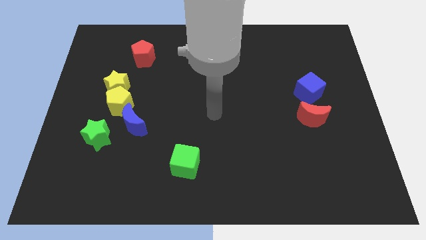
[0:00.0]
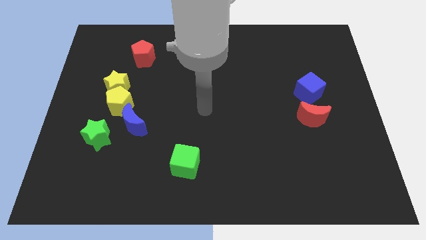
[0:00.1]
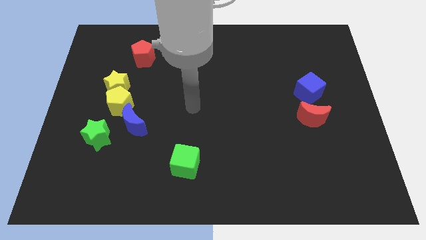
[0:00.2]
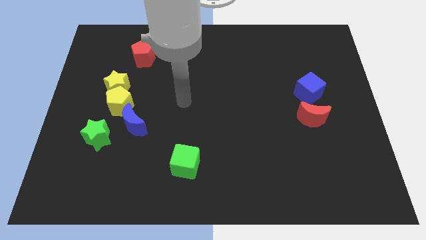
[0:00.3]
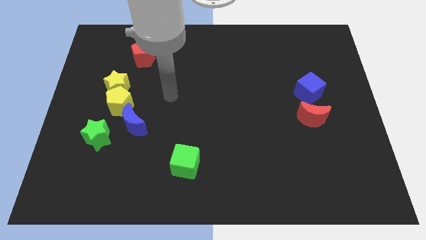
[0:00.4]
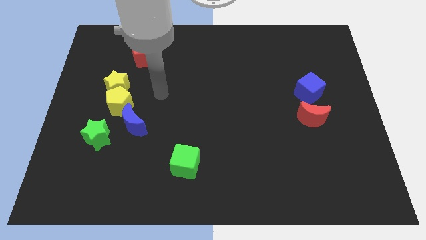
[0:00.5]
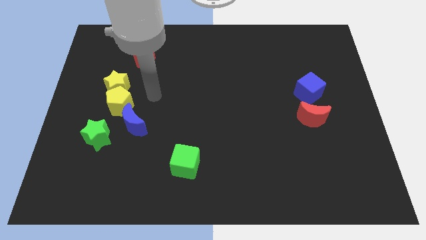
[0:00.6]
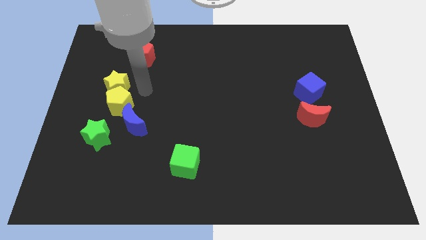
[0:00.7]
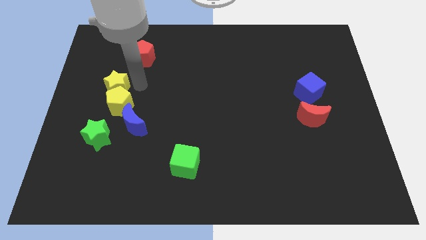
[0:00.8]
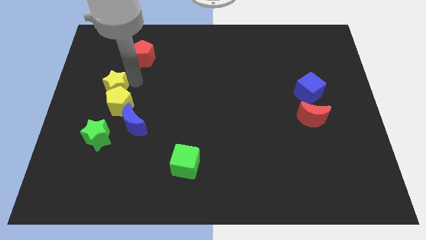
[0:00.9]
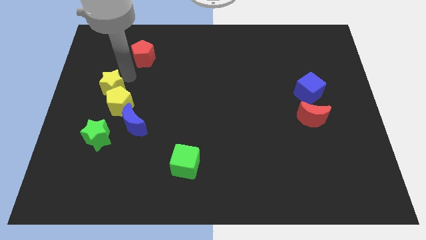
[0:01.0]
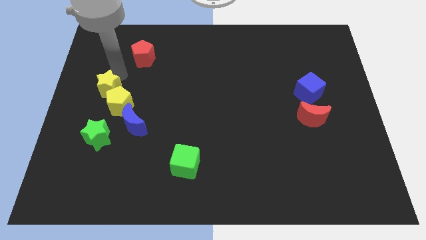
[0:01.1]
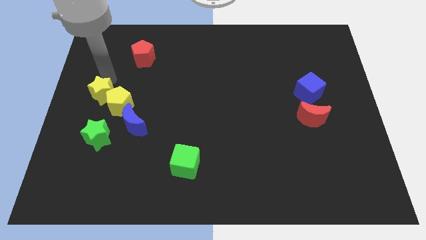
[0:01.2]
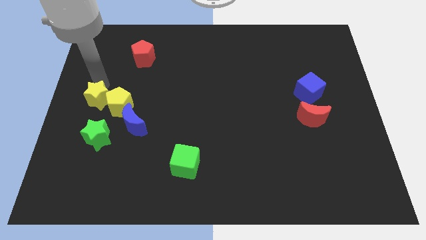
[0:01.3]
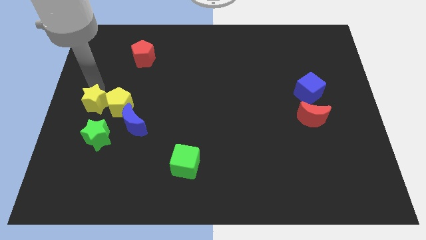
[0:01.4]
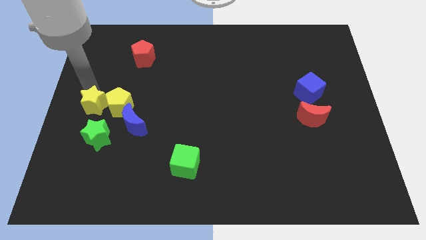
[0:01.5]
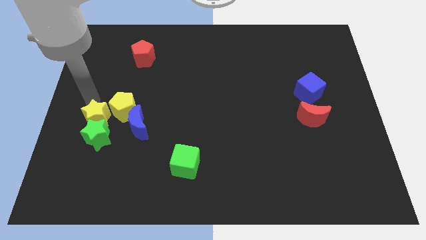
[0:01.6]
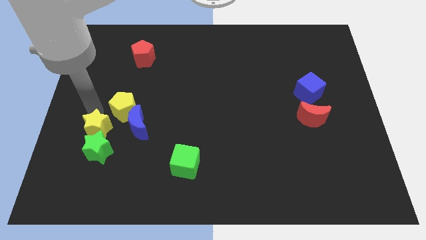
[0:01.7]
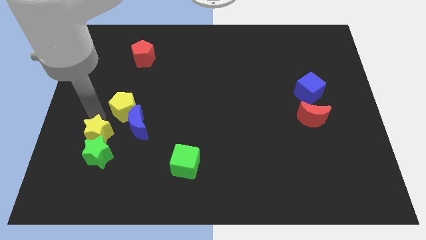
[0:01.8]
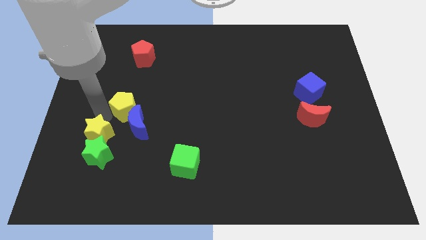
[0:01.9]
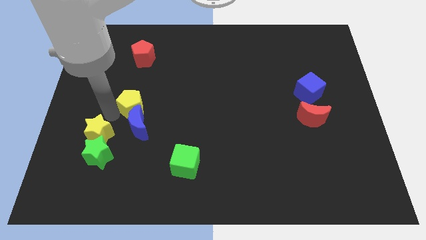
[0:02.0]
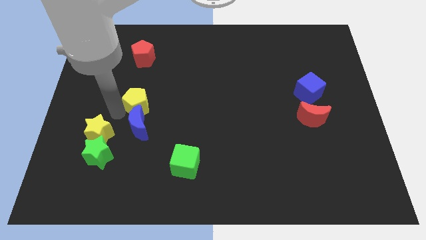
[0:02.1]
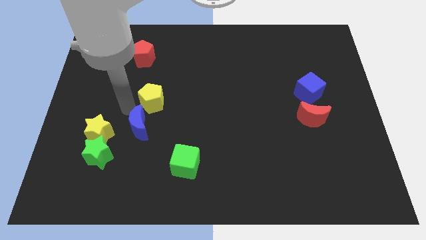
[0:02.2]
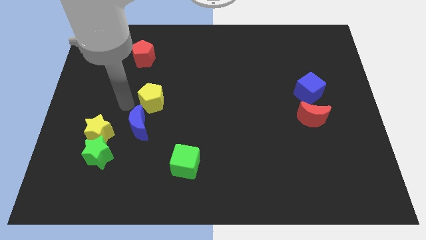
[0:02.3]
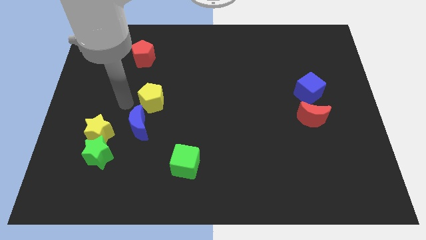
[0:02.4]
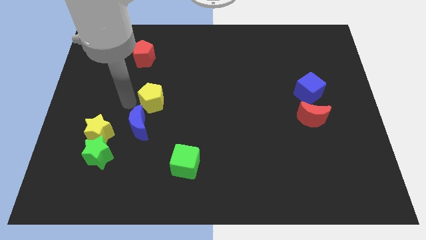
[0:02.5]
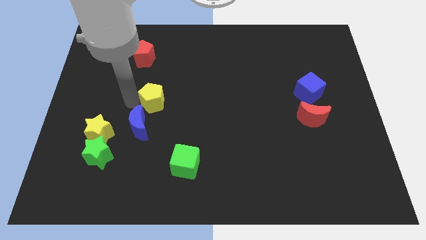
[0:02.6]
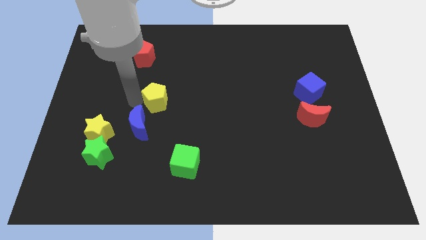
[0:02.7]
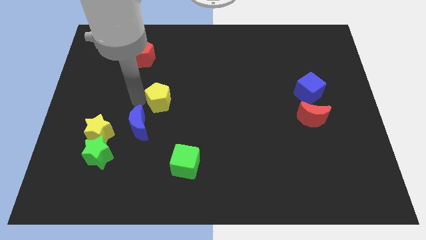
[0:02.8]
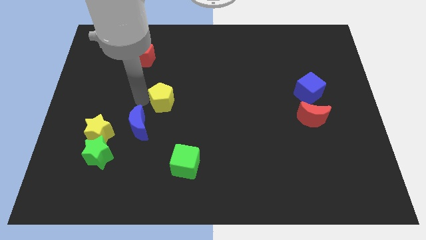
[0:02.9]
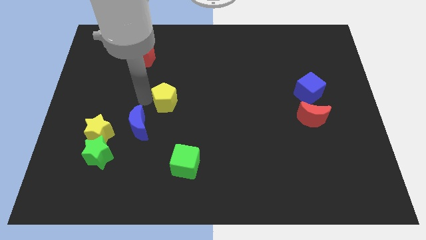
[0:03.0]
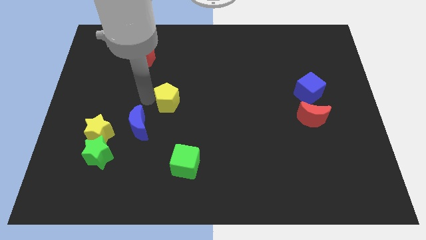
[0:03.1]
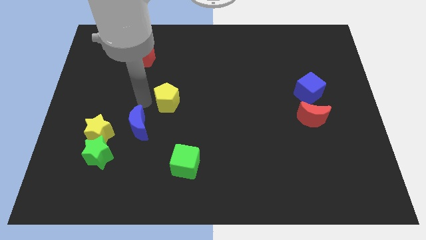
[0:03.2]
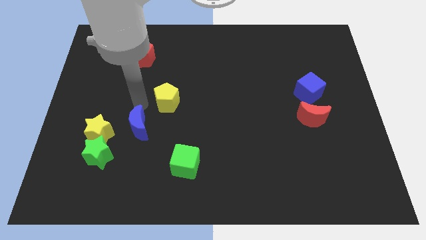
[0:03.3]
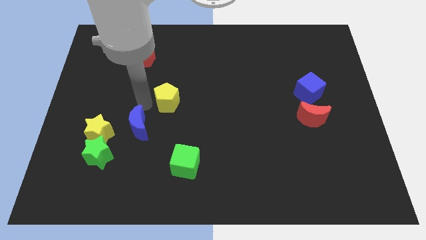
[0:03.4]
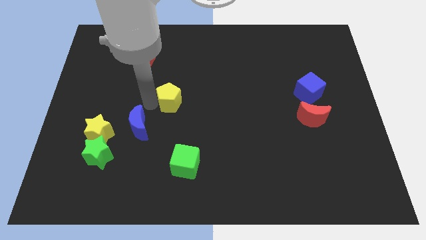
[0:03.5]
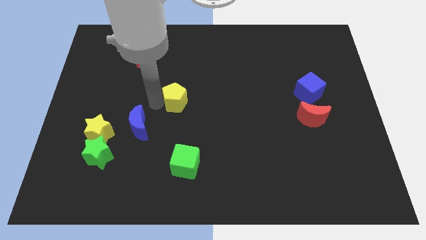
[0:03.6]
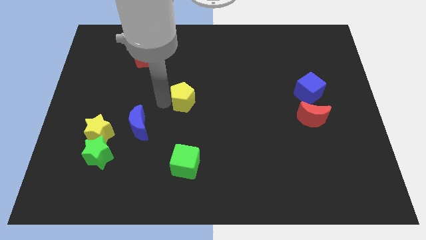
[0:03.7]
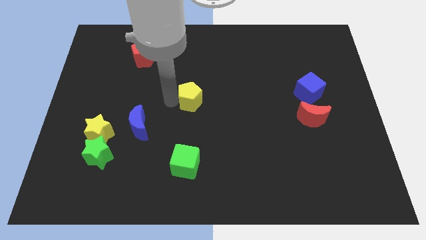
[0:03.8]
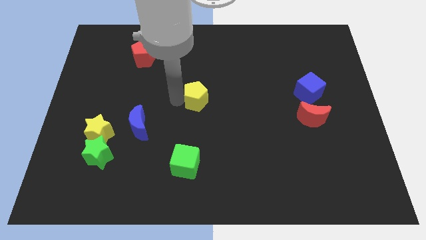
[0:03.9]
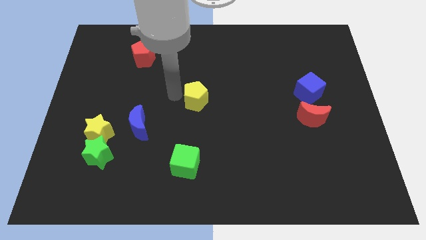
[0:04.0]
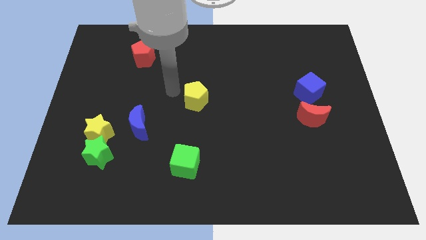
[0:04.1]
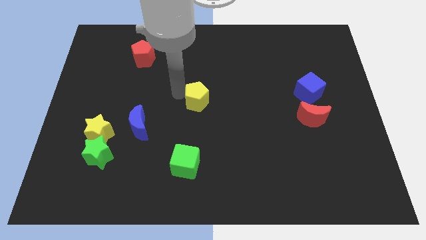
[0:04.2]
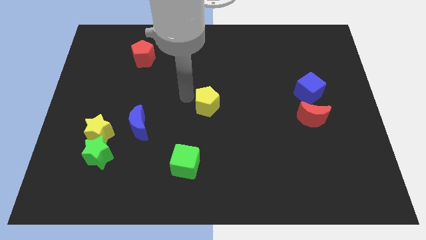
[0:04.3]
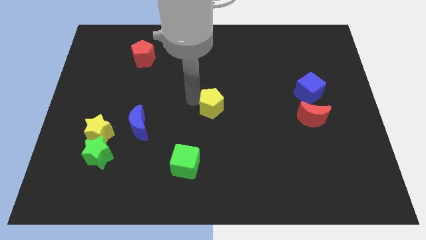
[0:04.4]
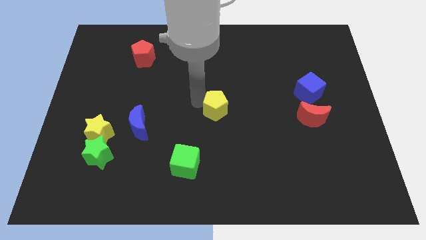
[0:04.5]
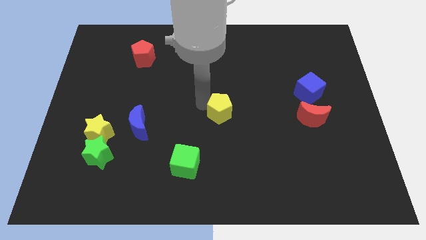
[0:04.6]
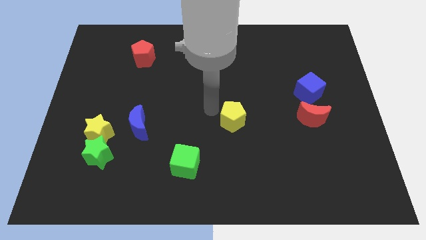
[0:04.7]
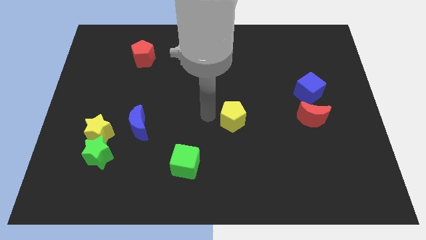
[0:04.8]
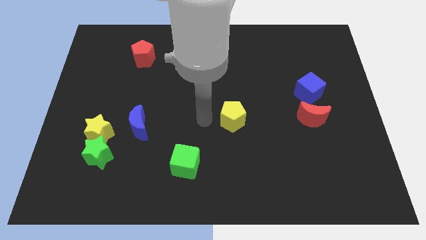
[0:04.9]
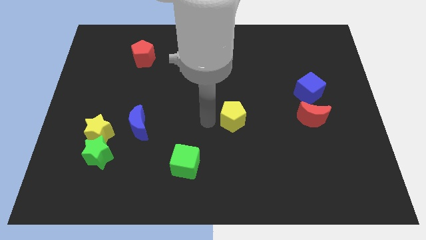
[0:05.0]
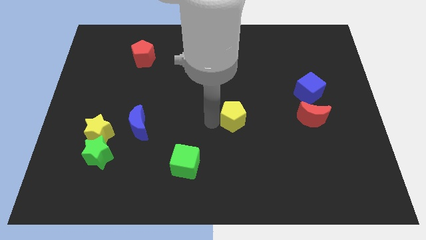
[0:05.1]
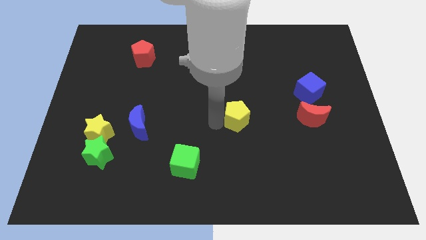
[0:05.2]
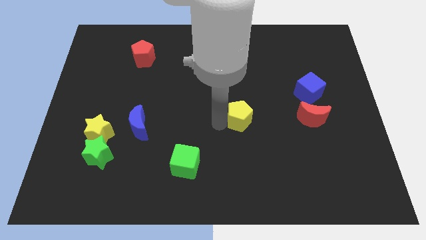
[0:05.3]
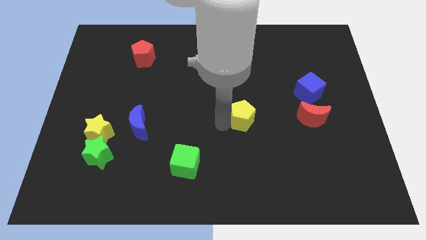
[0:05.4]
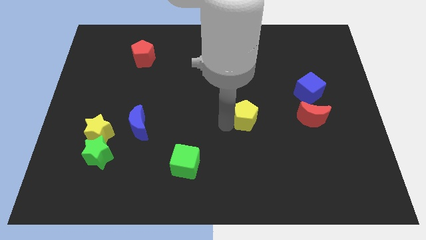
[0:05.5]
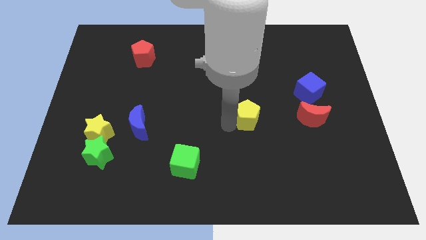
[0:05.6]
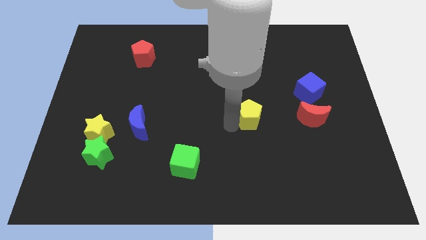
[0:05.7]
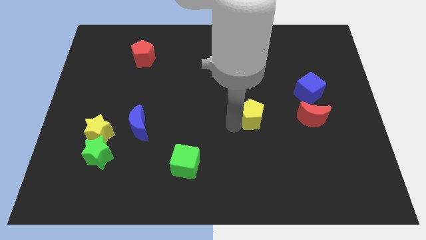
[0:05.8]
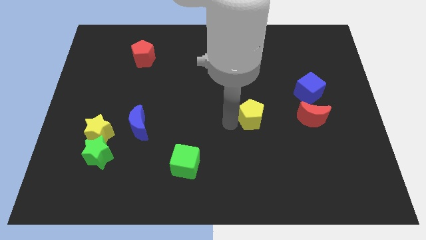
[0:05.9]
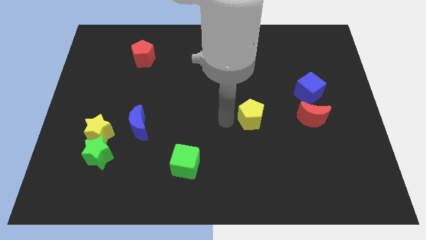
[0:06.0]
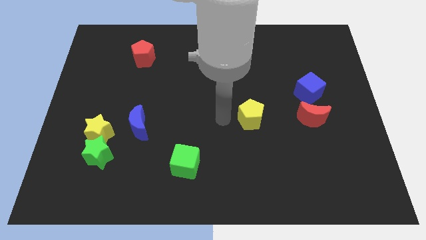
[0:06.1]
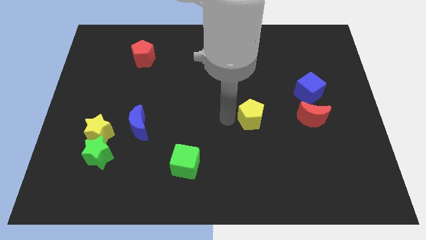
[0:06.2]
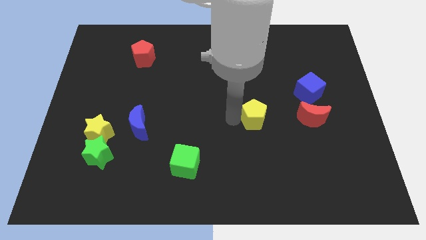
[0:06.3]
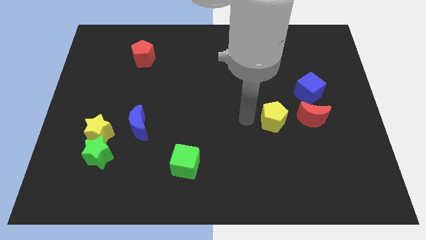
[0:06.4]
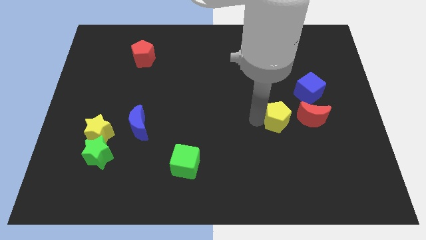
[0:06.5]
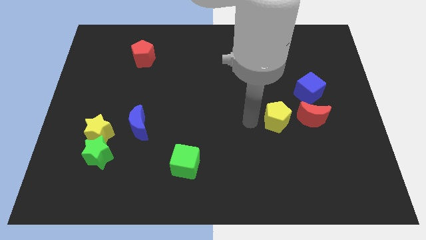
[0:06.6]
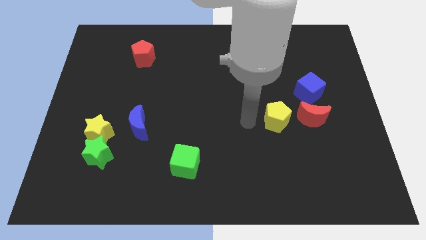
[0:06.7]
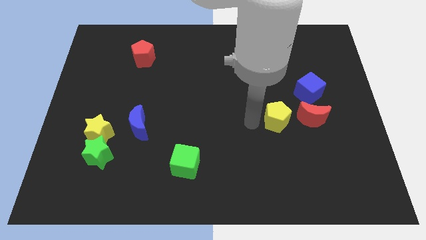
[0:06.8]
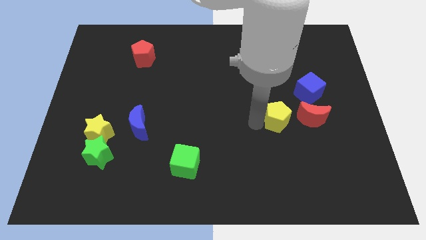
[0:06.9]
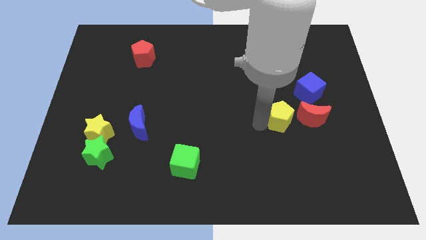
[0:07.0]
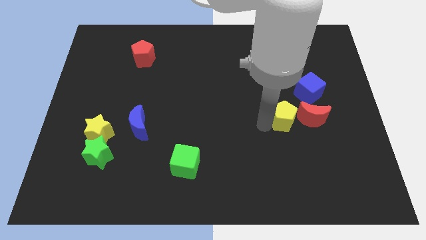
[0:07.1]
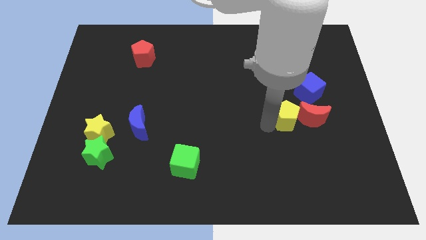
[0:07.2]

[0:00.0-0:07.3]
slide the yellow pentagon next to the red moon
